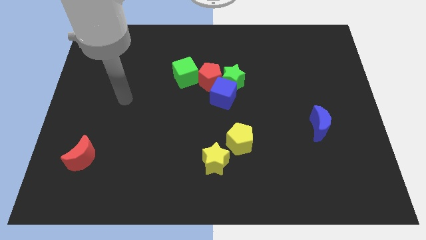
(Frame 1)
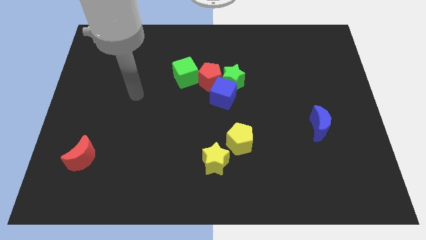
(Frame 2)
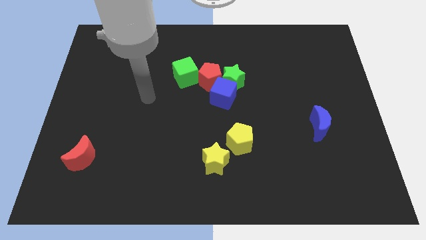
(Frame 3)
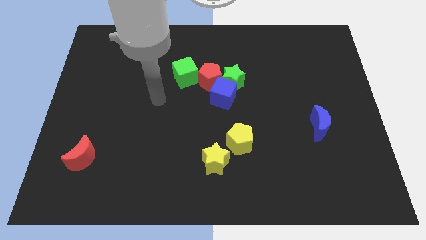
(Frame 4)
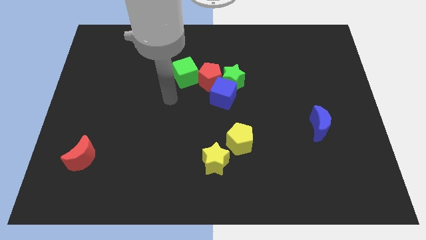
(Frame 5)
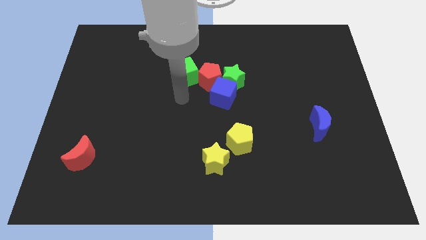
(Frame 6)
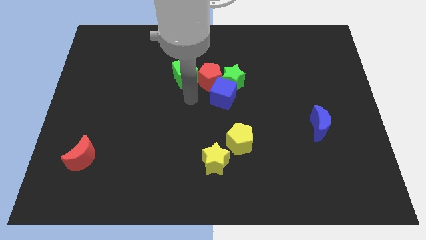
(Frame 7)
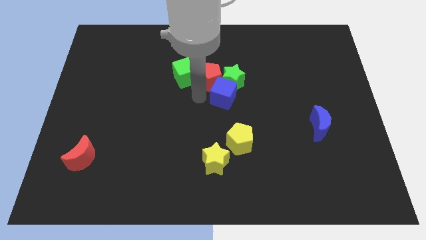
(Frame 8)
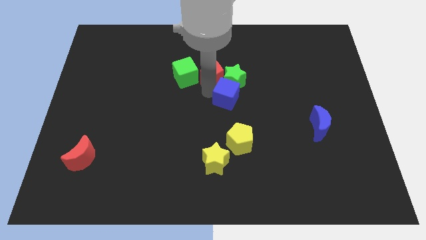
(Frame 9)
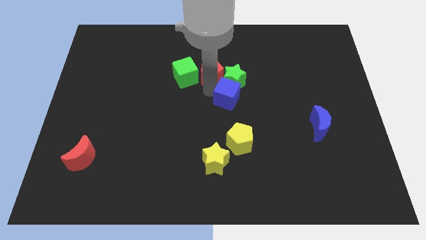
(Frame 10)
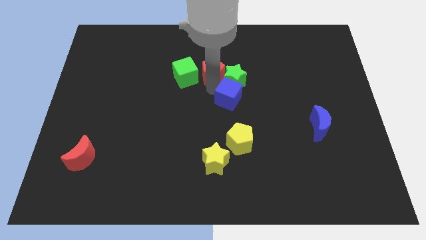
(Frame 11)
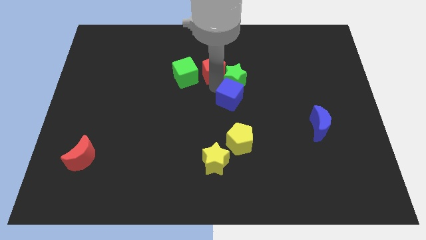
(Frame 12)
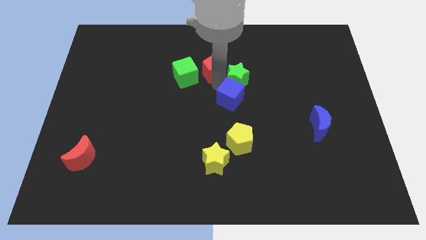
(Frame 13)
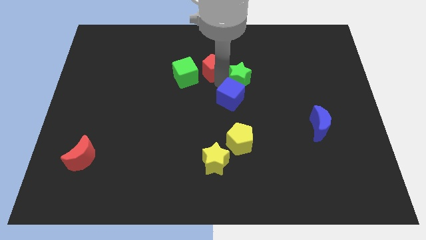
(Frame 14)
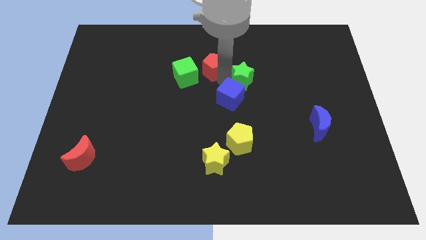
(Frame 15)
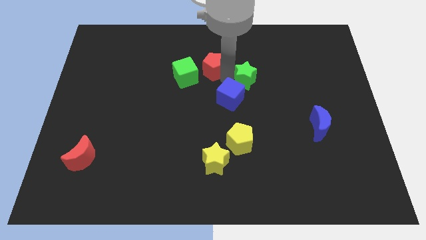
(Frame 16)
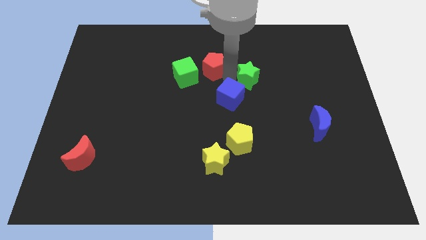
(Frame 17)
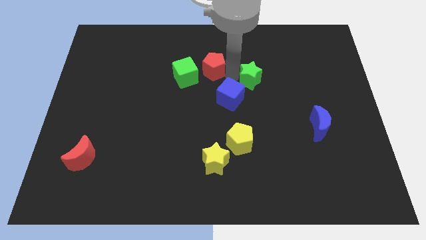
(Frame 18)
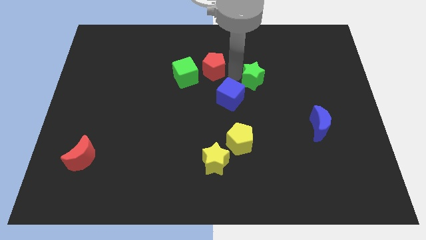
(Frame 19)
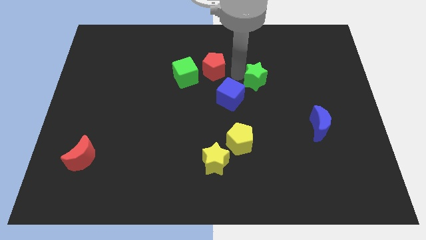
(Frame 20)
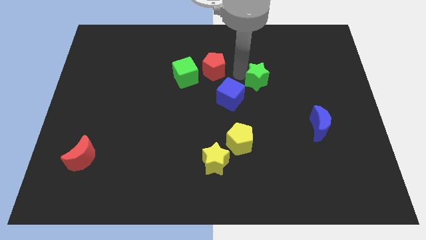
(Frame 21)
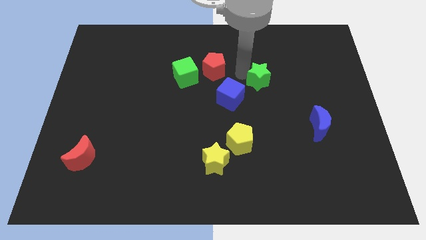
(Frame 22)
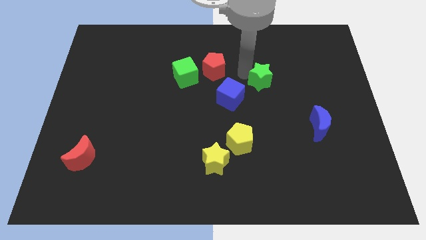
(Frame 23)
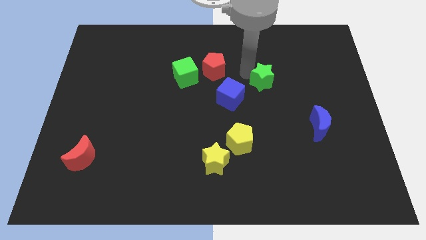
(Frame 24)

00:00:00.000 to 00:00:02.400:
separate the green star from the blue cube and red pentagon

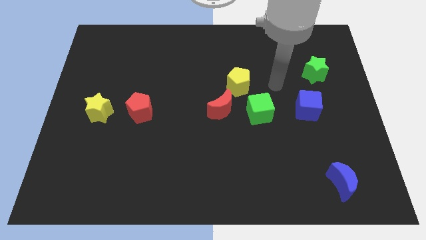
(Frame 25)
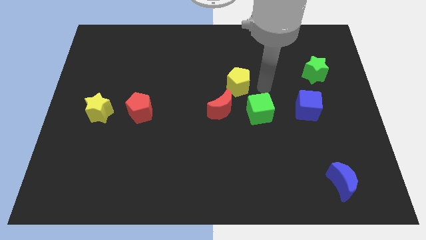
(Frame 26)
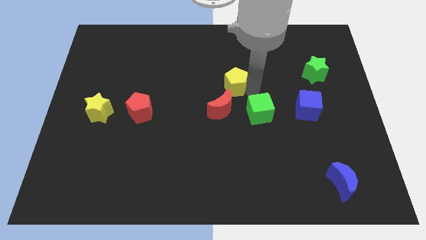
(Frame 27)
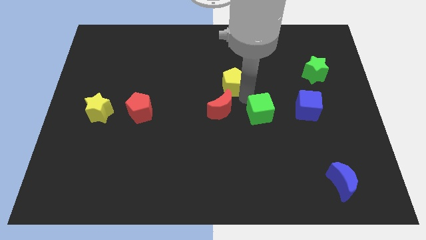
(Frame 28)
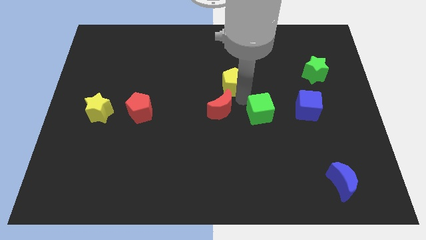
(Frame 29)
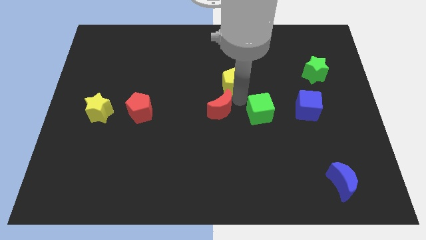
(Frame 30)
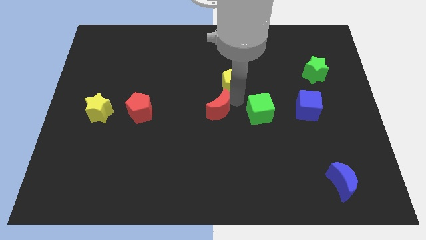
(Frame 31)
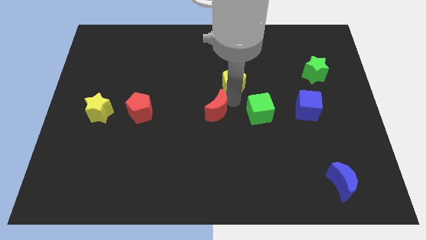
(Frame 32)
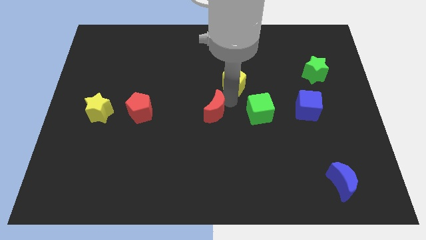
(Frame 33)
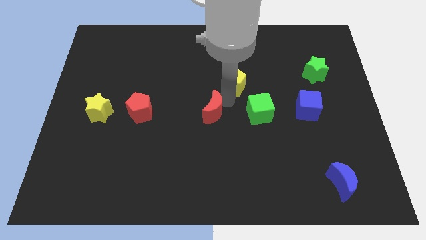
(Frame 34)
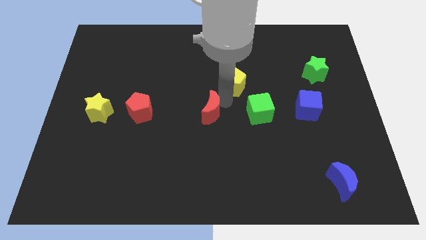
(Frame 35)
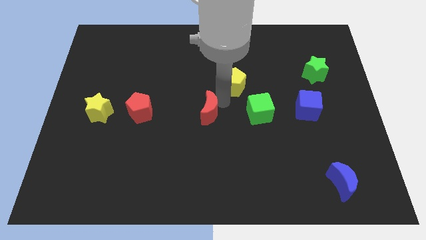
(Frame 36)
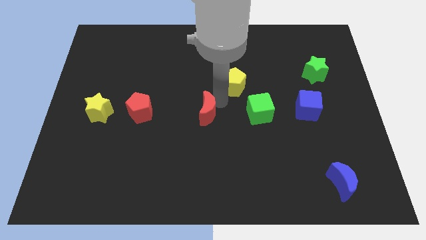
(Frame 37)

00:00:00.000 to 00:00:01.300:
move the red moon away from the yellow pentagon and green cube

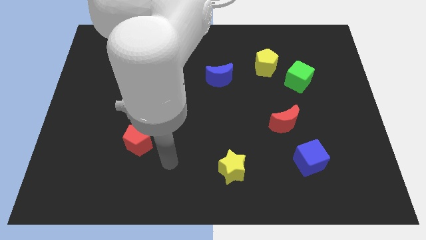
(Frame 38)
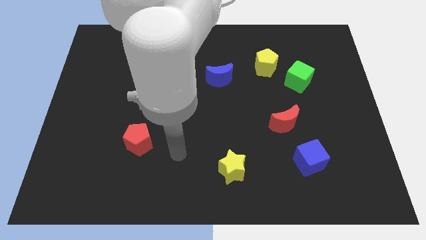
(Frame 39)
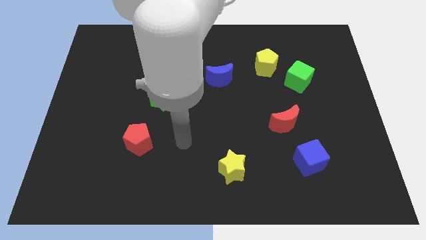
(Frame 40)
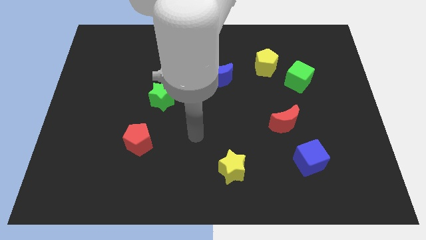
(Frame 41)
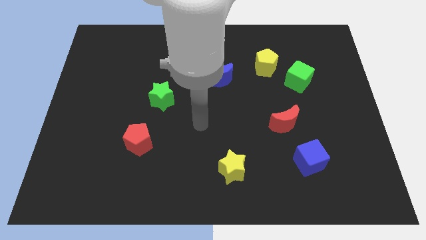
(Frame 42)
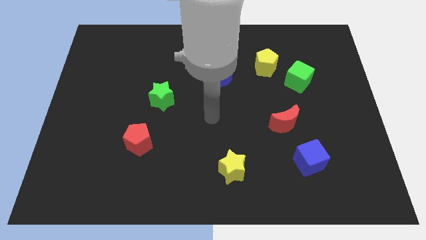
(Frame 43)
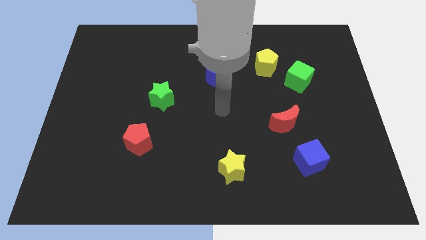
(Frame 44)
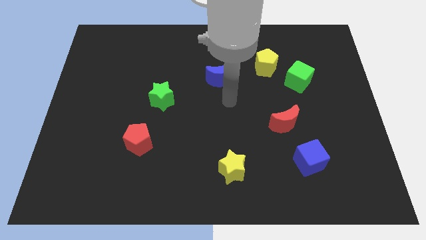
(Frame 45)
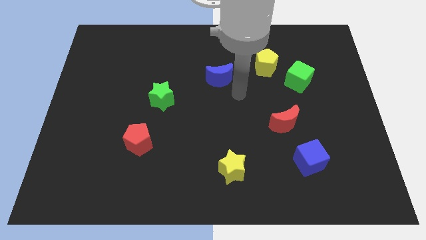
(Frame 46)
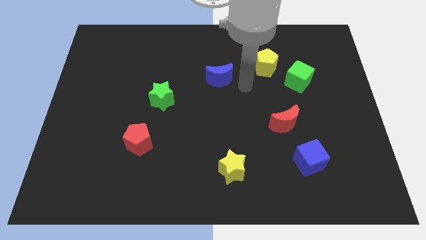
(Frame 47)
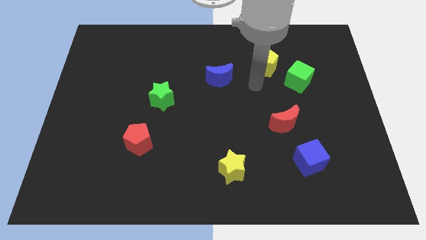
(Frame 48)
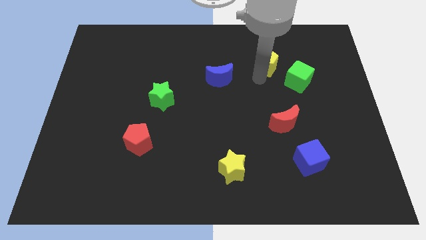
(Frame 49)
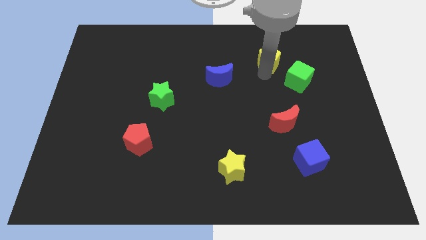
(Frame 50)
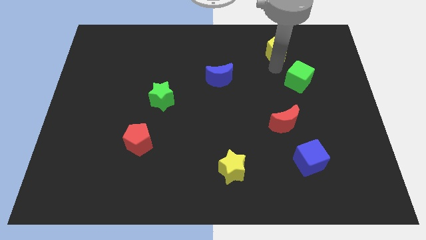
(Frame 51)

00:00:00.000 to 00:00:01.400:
move the green cube away from the yellow pentagon

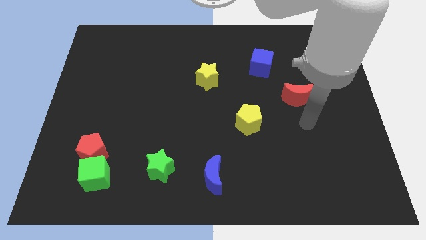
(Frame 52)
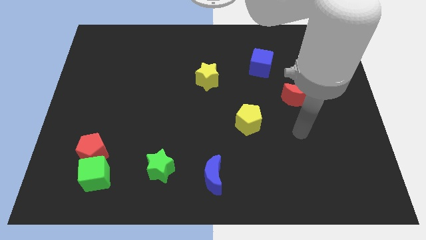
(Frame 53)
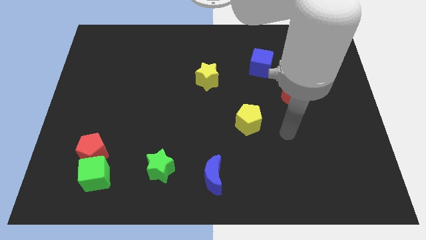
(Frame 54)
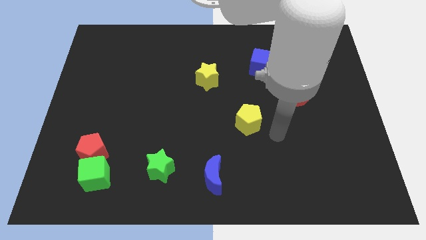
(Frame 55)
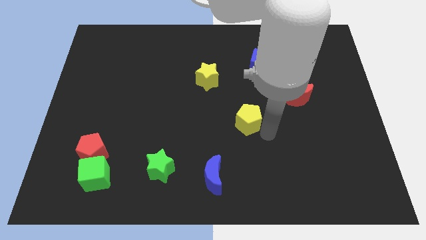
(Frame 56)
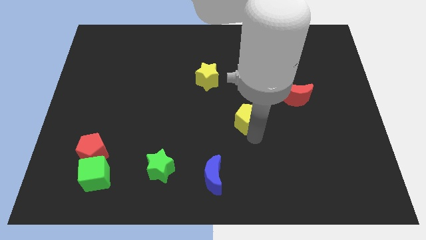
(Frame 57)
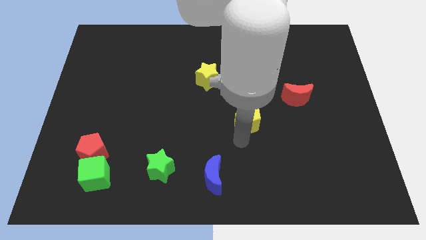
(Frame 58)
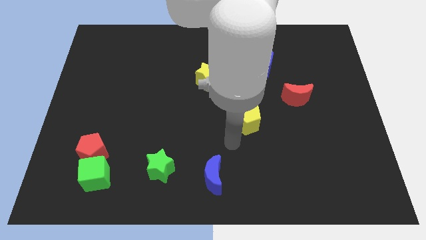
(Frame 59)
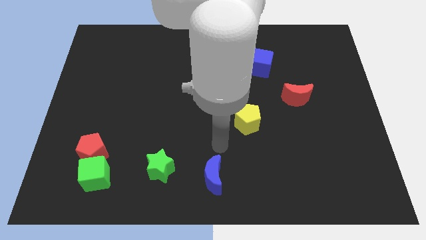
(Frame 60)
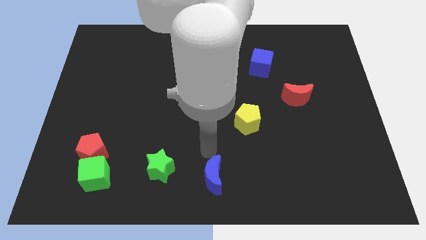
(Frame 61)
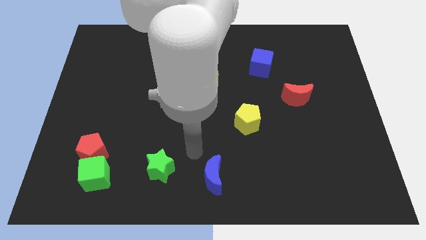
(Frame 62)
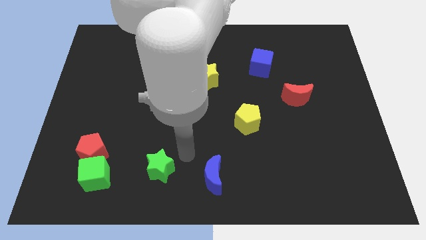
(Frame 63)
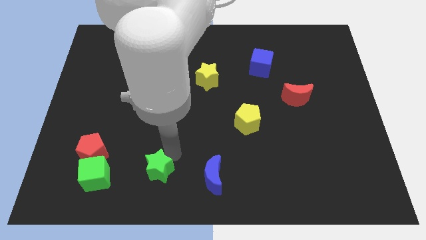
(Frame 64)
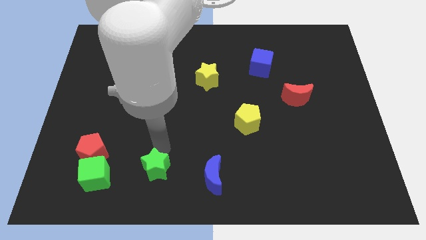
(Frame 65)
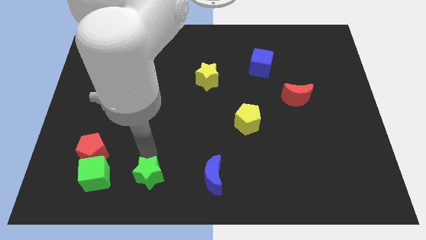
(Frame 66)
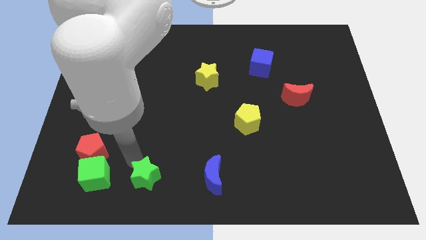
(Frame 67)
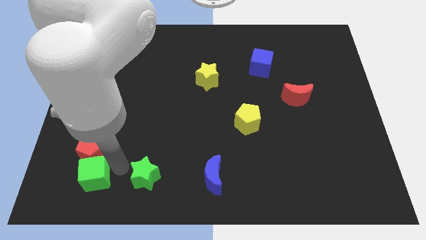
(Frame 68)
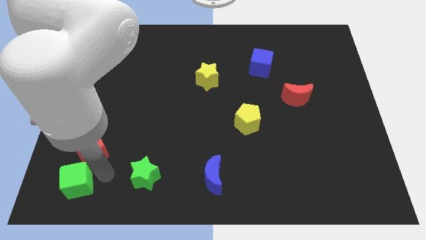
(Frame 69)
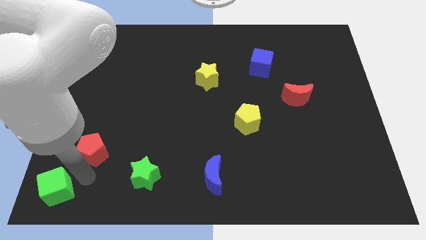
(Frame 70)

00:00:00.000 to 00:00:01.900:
move the red pentagon away from the green cube

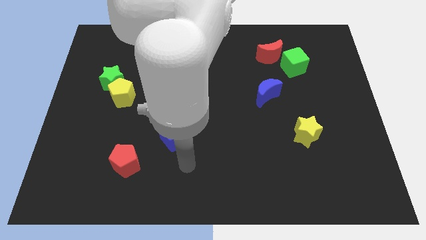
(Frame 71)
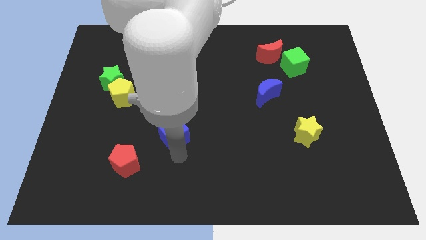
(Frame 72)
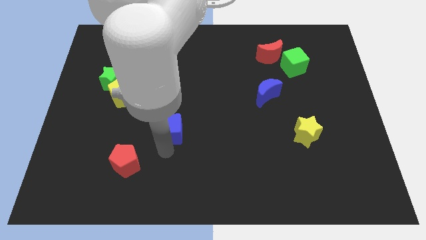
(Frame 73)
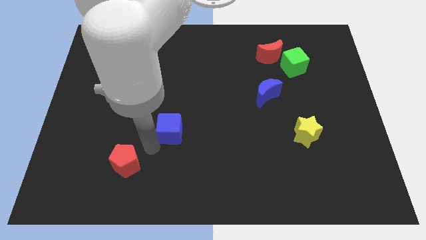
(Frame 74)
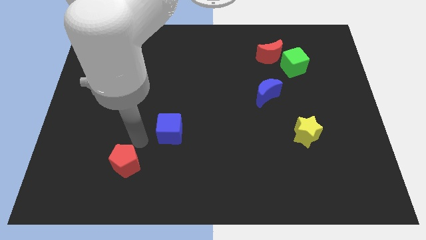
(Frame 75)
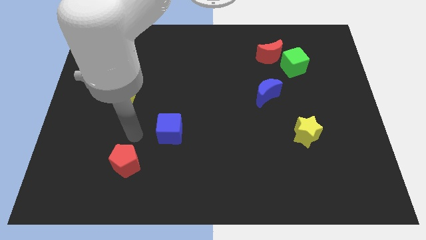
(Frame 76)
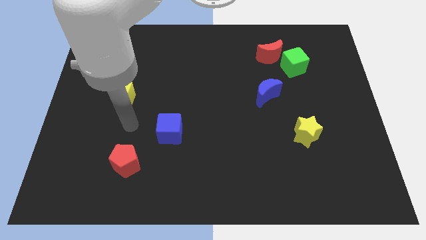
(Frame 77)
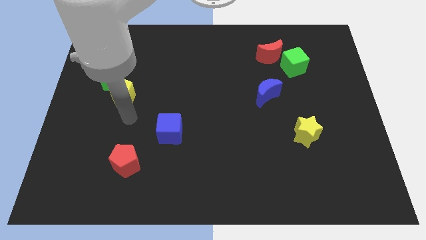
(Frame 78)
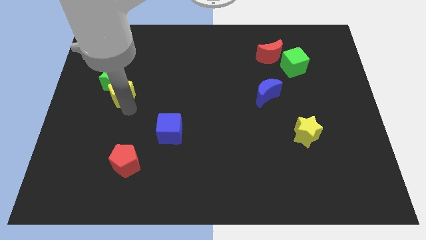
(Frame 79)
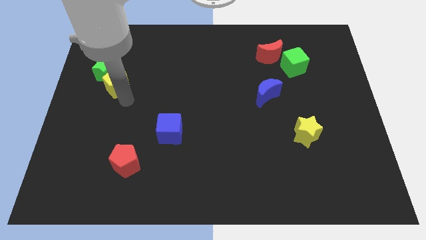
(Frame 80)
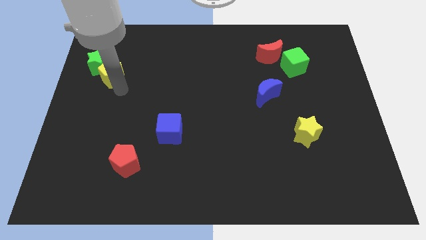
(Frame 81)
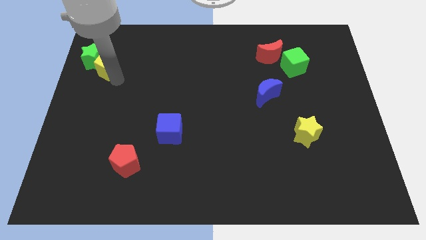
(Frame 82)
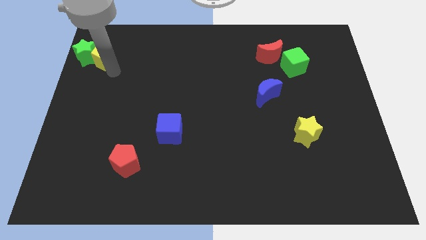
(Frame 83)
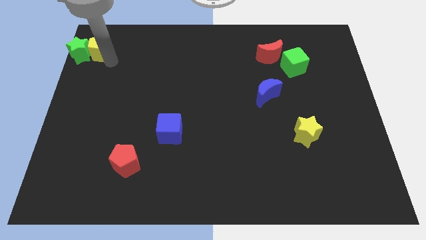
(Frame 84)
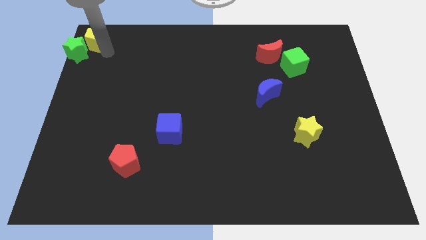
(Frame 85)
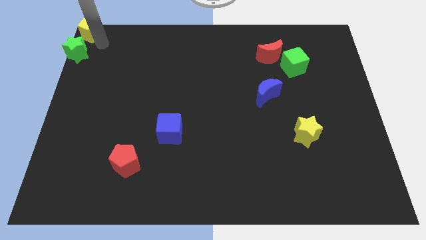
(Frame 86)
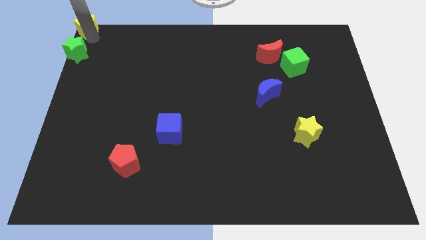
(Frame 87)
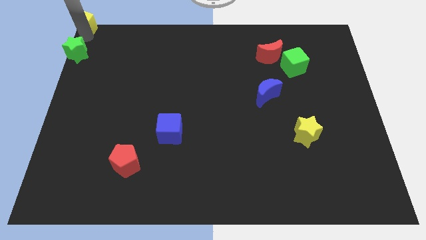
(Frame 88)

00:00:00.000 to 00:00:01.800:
separate the green star from the yellow pentagon

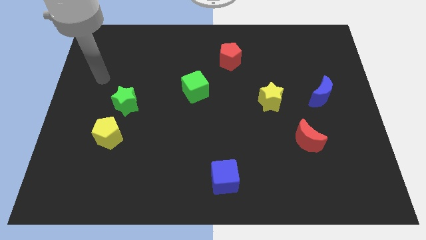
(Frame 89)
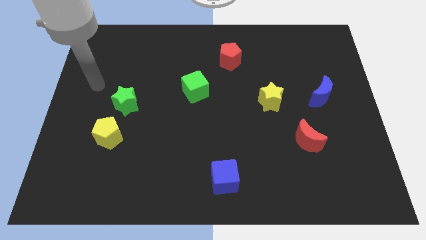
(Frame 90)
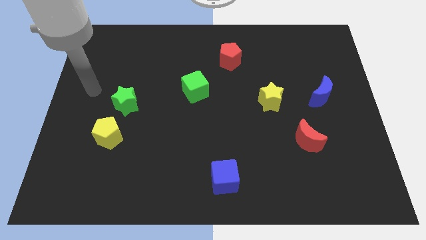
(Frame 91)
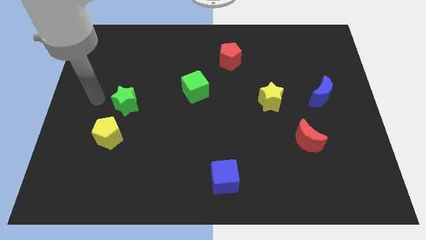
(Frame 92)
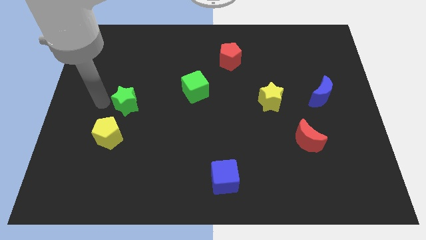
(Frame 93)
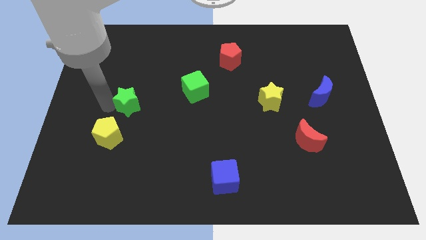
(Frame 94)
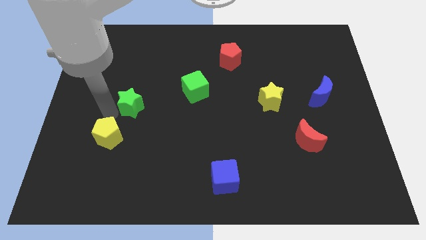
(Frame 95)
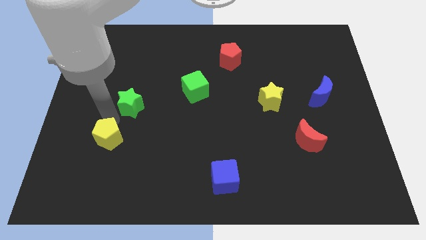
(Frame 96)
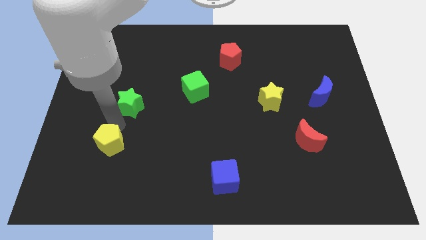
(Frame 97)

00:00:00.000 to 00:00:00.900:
move the green star away from the yellow pentagon
